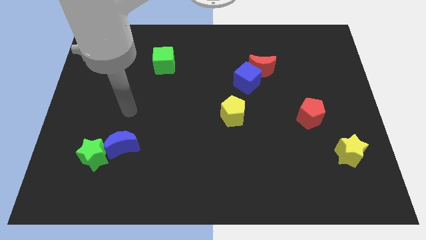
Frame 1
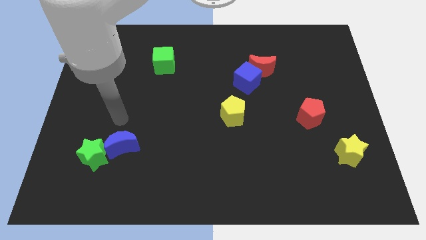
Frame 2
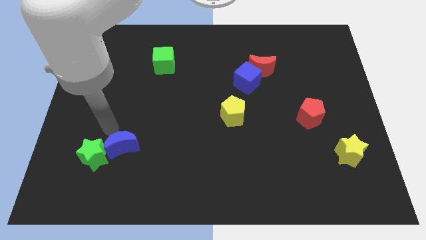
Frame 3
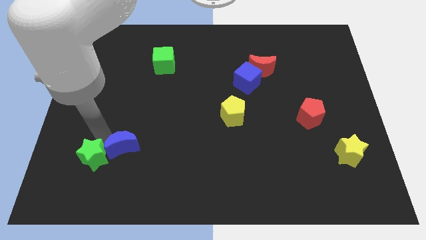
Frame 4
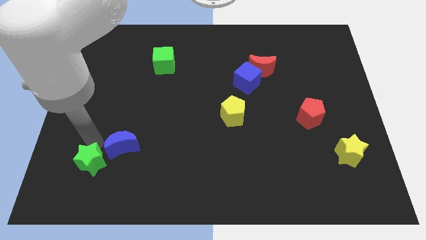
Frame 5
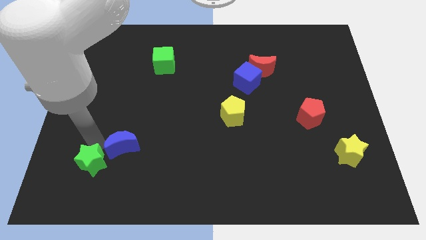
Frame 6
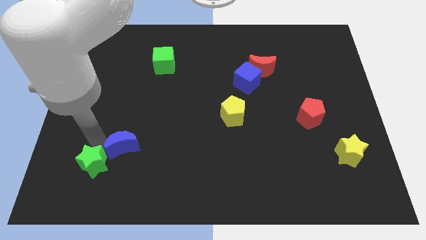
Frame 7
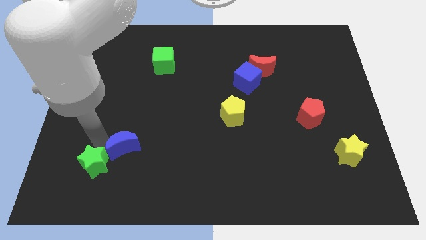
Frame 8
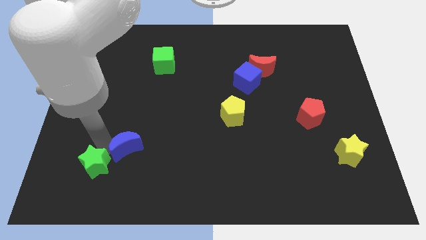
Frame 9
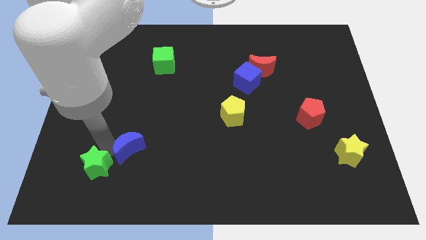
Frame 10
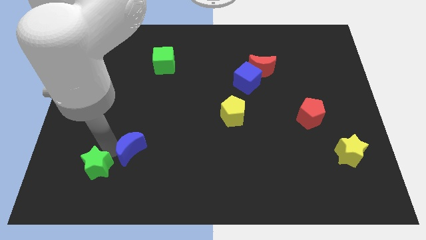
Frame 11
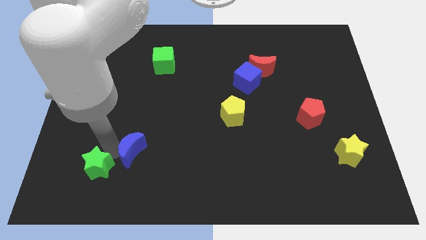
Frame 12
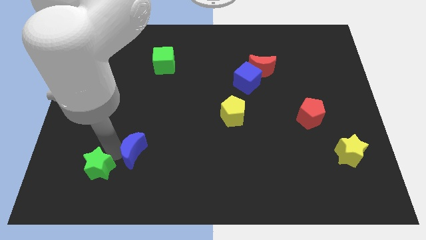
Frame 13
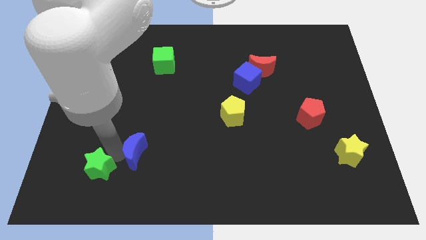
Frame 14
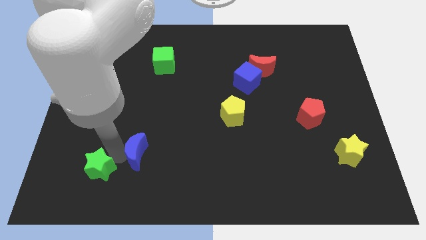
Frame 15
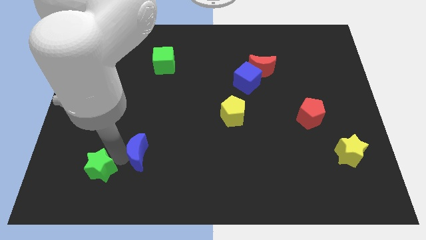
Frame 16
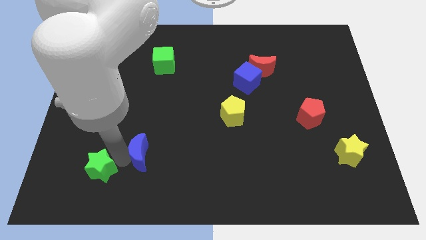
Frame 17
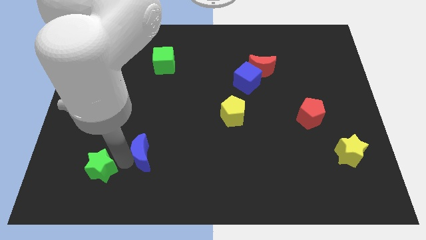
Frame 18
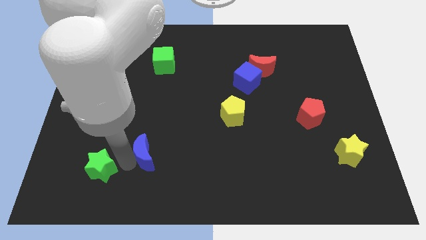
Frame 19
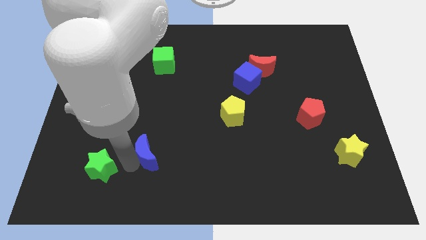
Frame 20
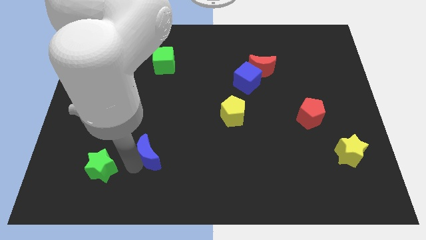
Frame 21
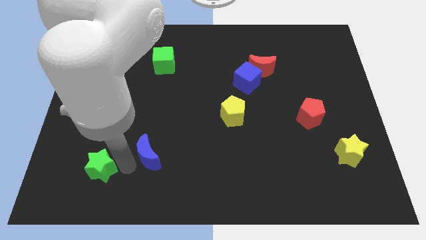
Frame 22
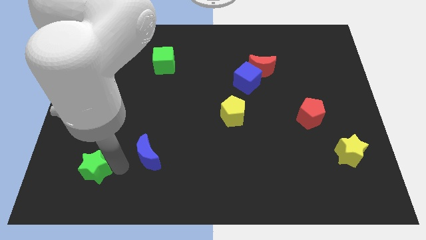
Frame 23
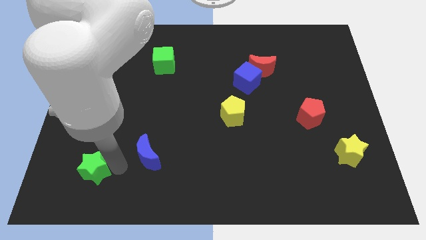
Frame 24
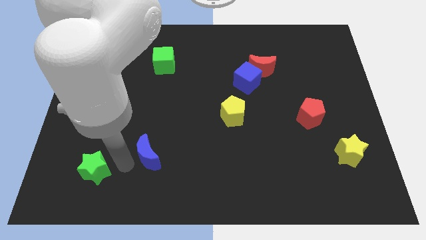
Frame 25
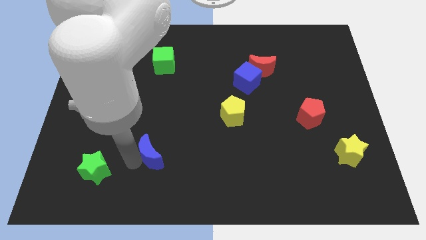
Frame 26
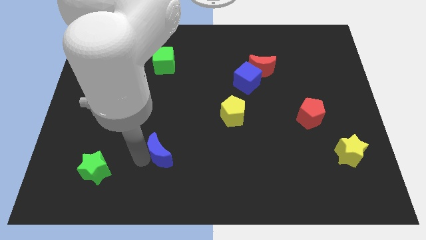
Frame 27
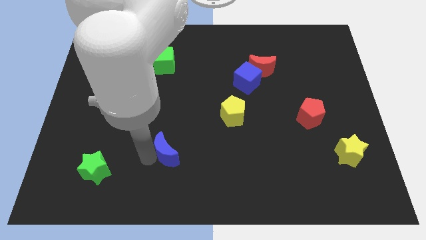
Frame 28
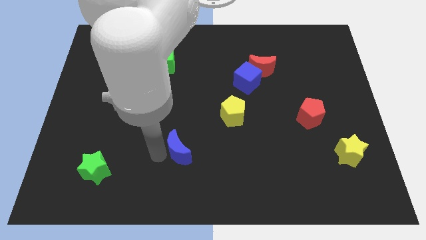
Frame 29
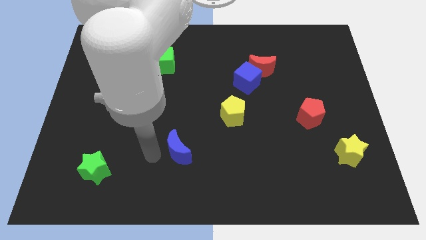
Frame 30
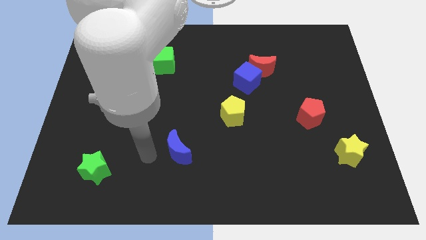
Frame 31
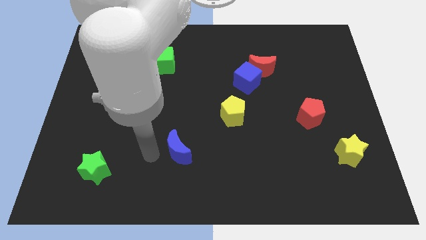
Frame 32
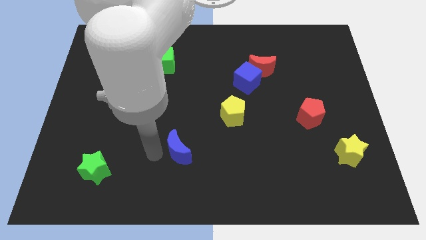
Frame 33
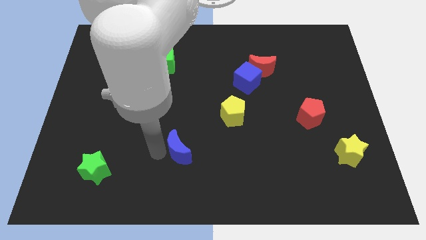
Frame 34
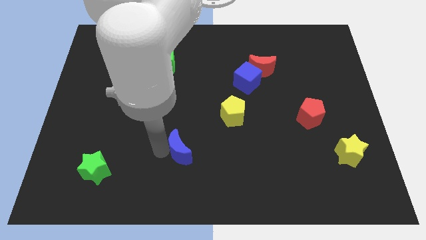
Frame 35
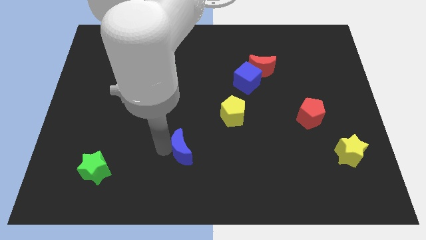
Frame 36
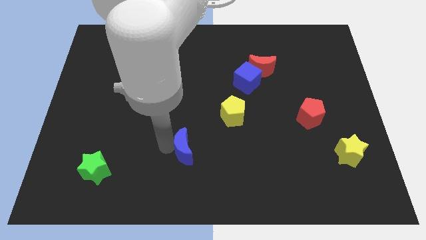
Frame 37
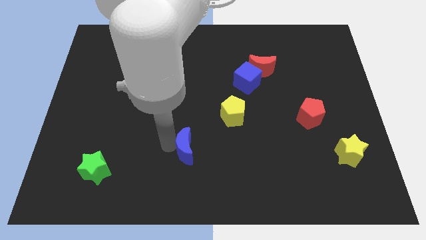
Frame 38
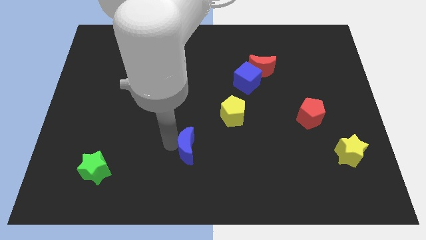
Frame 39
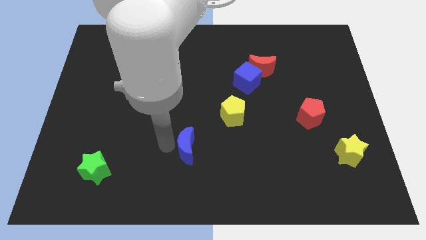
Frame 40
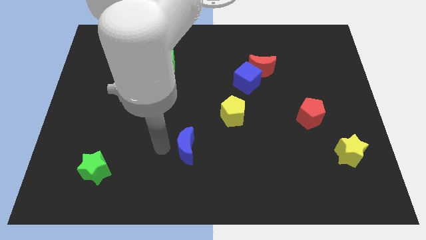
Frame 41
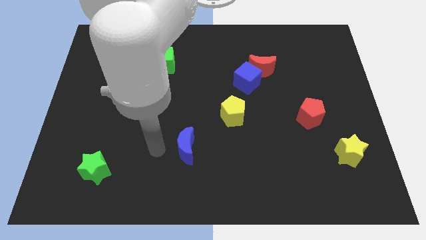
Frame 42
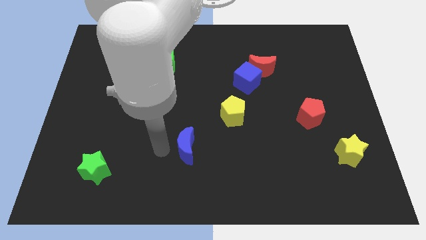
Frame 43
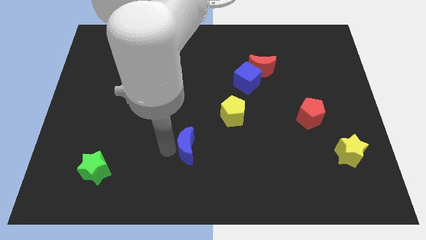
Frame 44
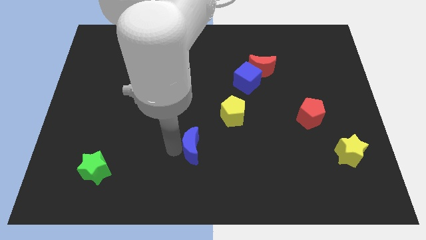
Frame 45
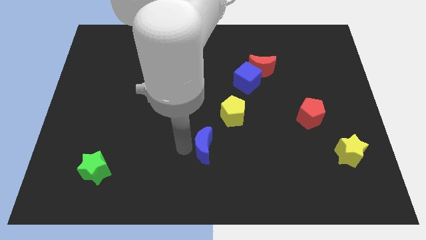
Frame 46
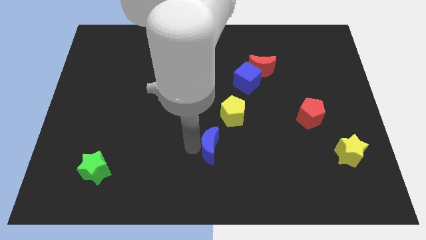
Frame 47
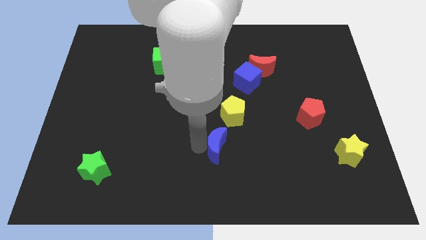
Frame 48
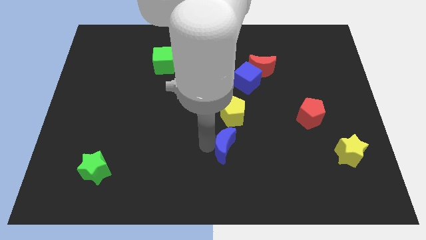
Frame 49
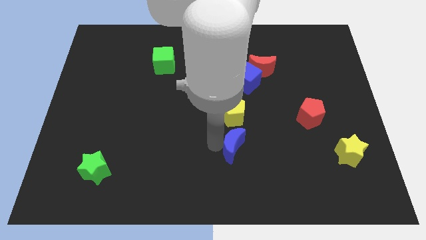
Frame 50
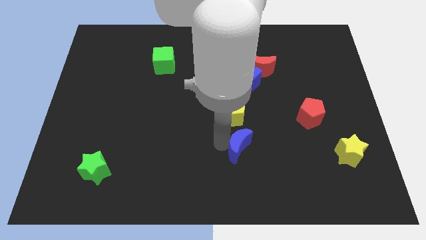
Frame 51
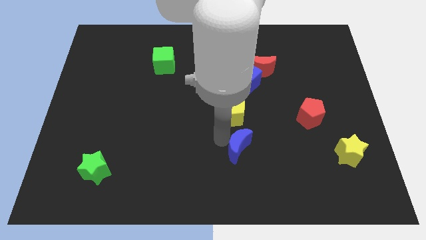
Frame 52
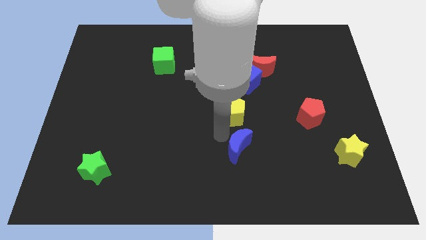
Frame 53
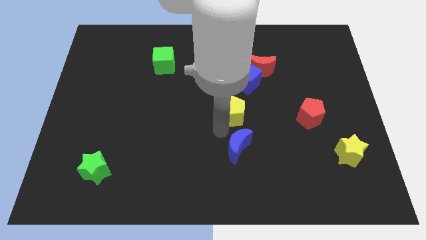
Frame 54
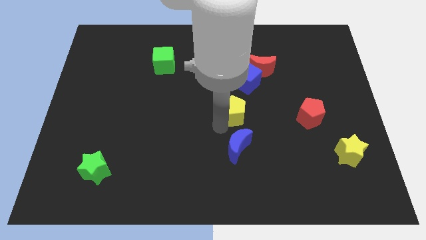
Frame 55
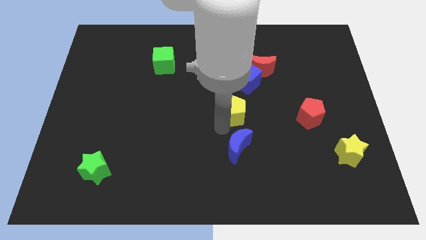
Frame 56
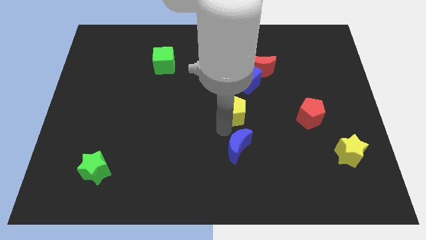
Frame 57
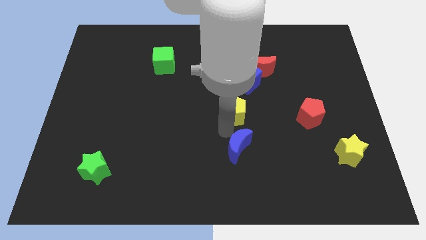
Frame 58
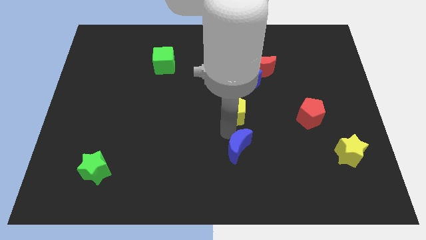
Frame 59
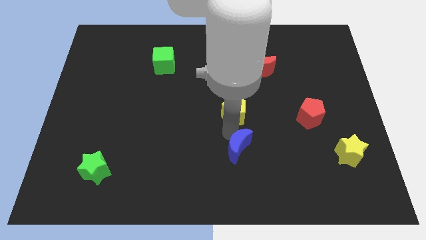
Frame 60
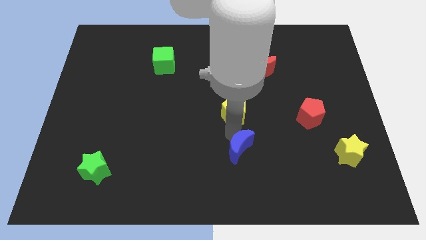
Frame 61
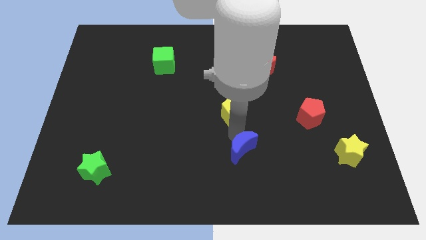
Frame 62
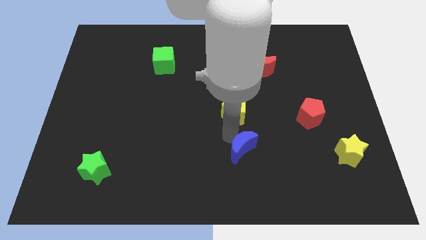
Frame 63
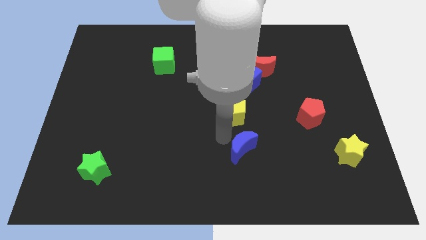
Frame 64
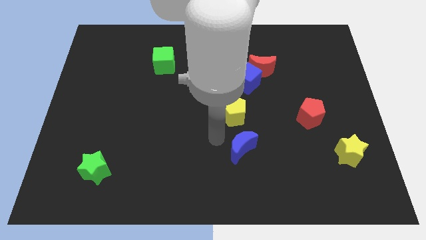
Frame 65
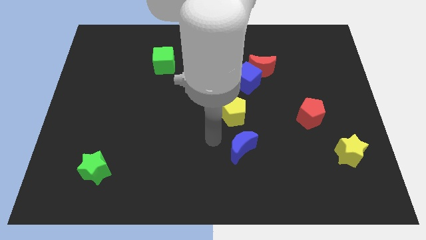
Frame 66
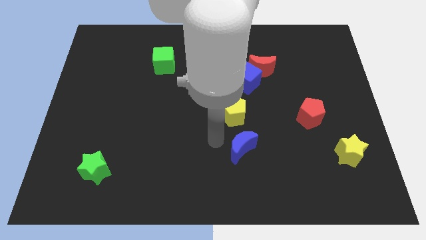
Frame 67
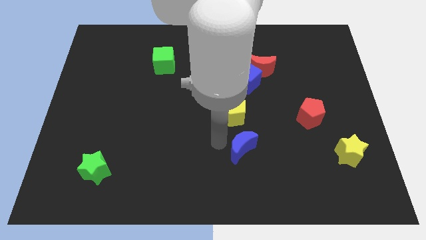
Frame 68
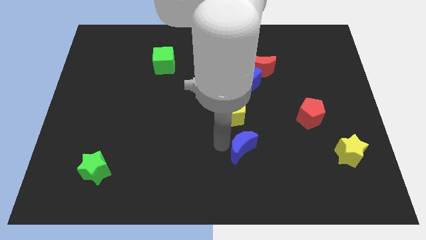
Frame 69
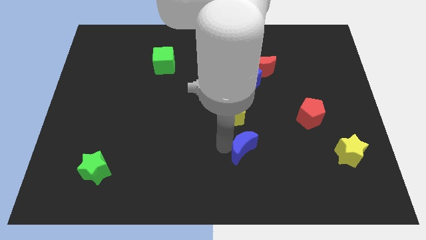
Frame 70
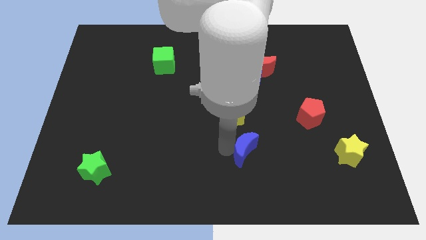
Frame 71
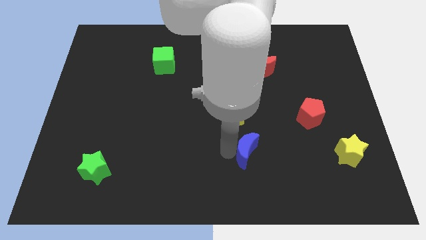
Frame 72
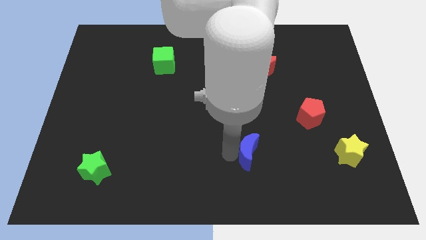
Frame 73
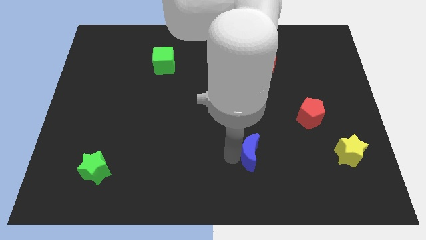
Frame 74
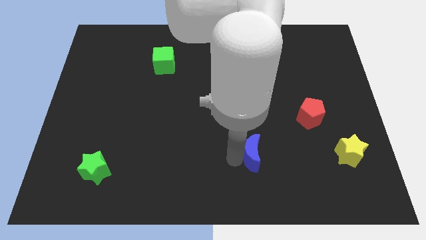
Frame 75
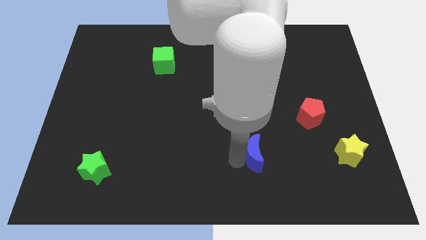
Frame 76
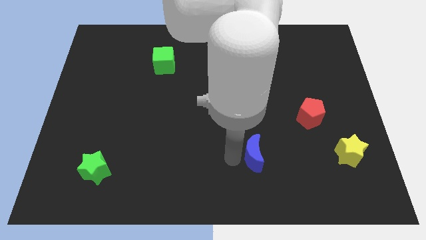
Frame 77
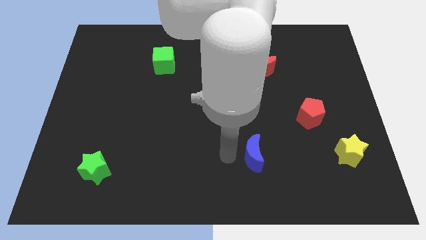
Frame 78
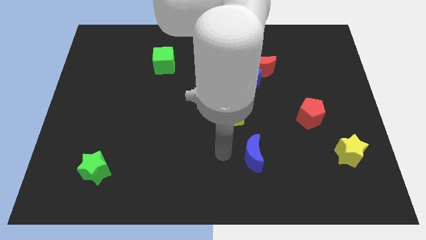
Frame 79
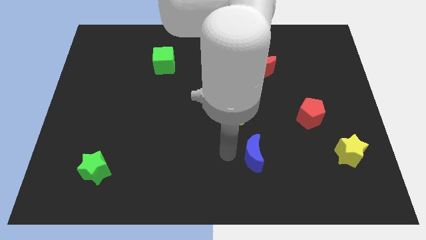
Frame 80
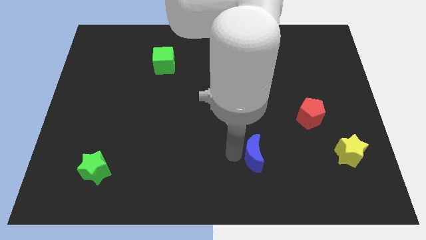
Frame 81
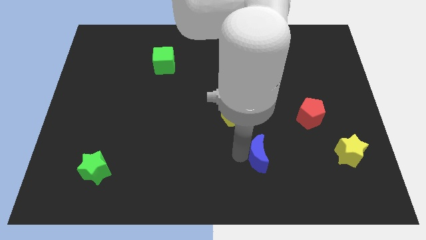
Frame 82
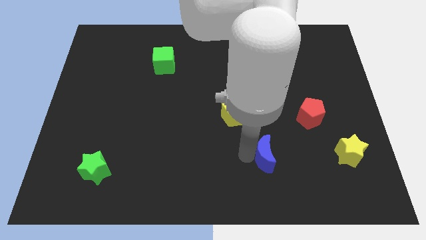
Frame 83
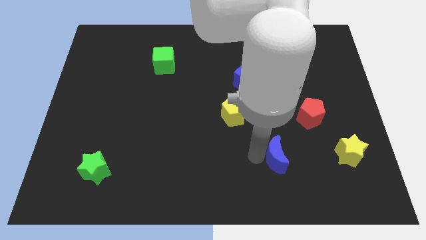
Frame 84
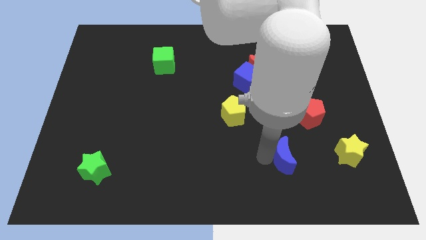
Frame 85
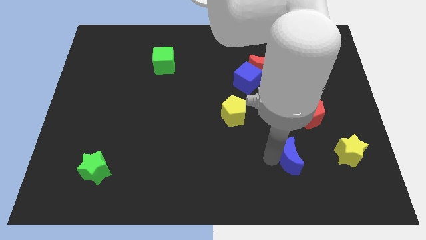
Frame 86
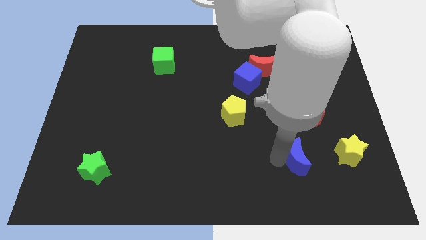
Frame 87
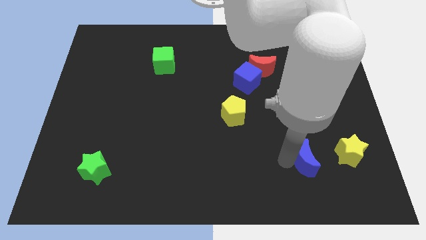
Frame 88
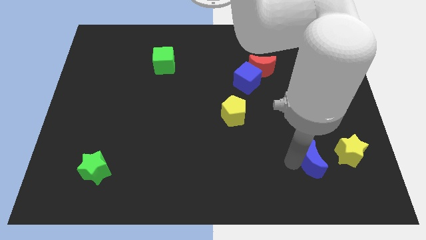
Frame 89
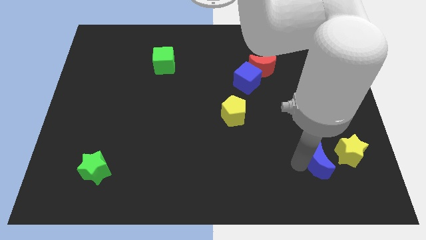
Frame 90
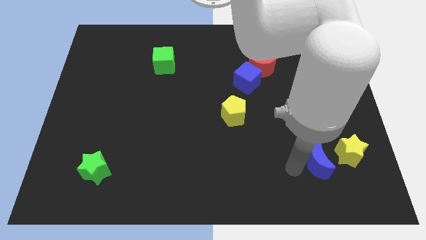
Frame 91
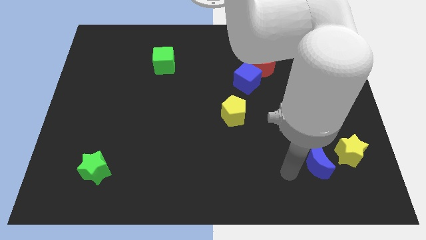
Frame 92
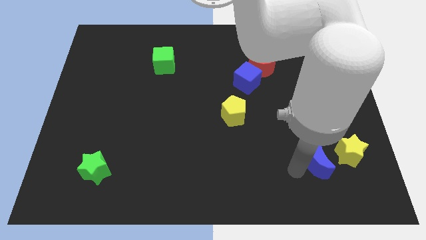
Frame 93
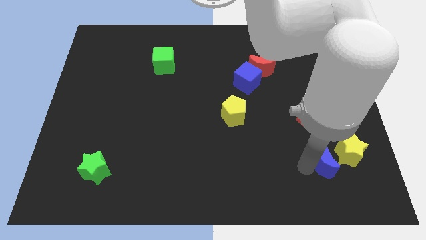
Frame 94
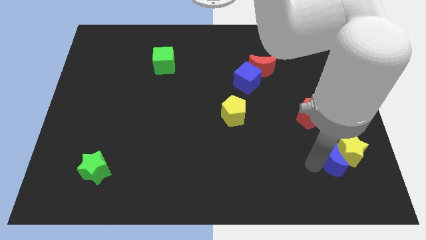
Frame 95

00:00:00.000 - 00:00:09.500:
push the blue moon close to the yellow star
